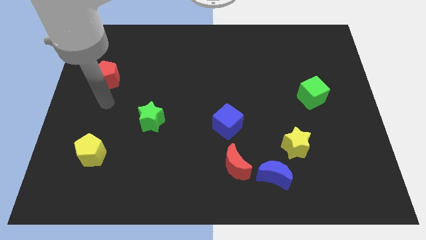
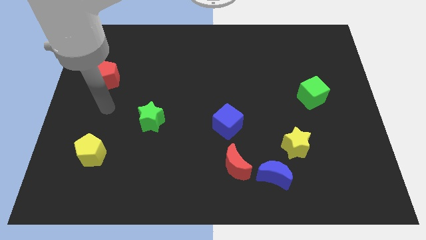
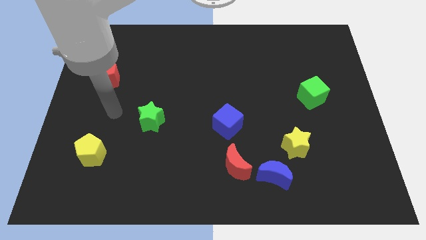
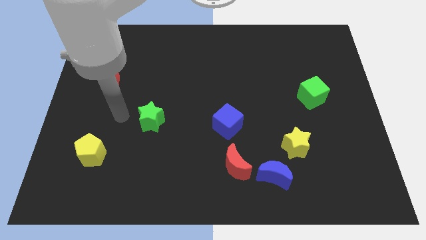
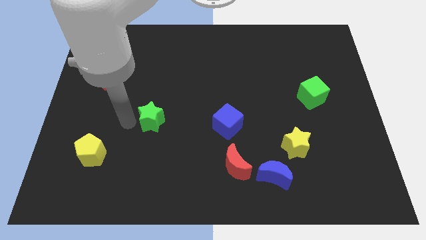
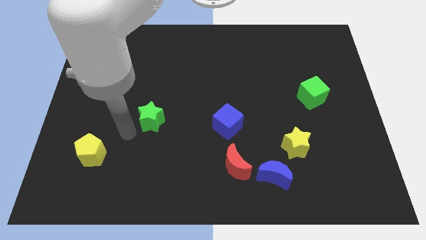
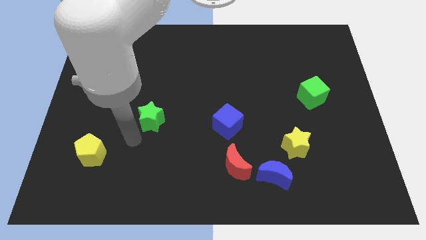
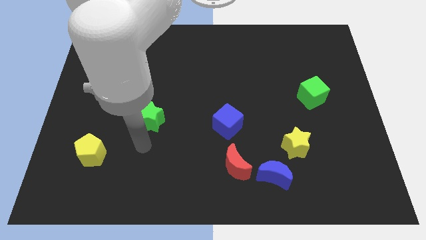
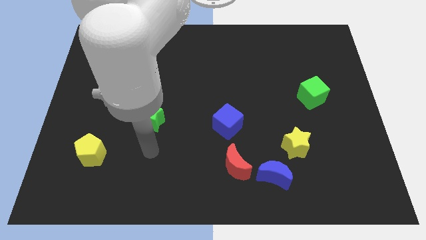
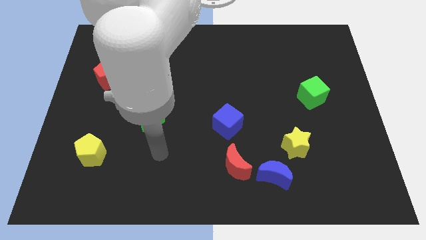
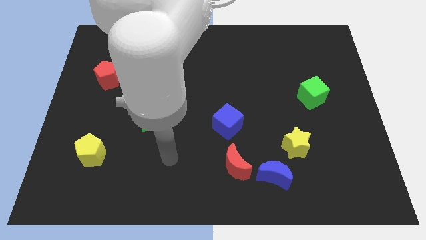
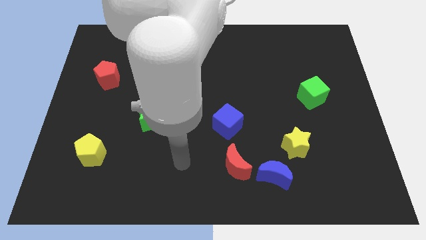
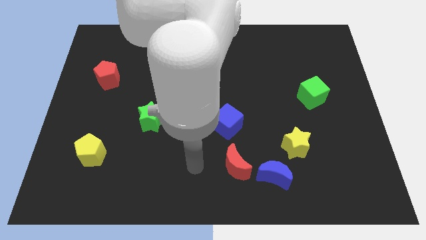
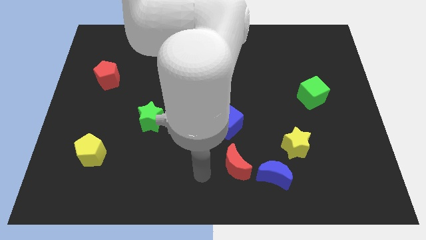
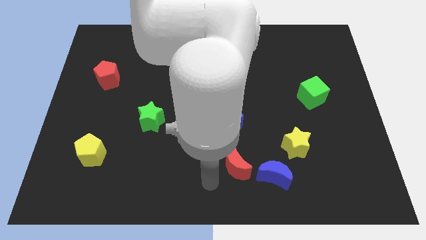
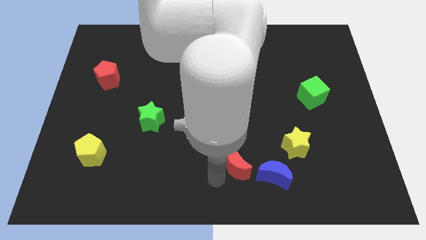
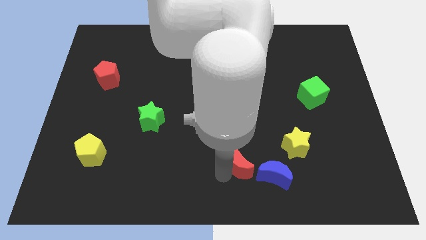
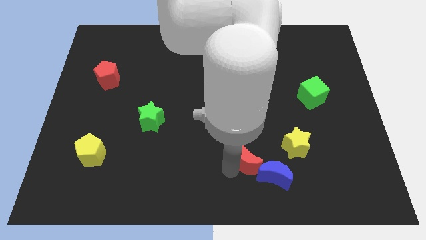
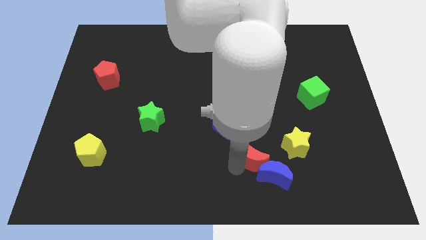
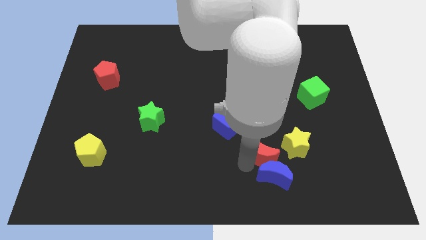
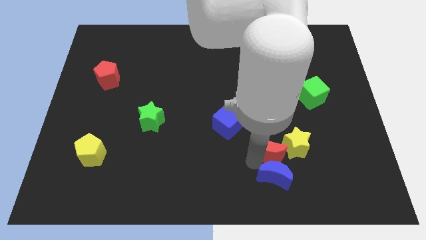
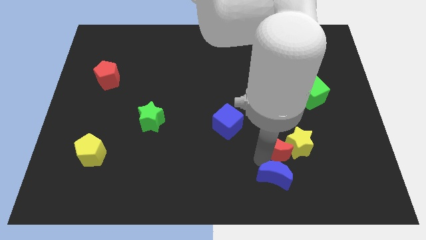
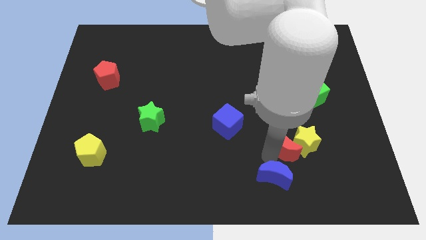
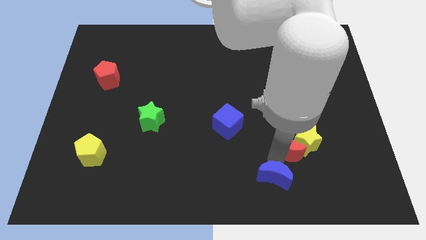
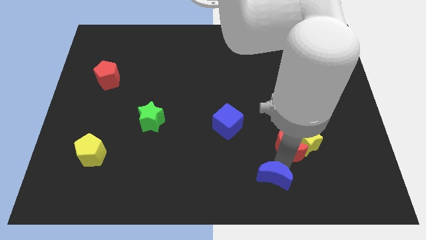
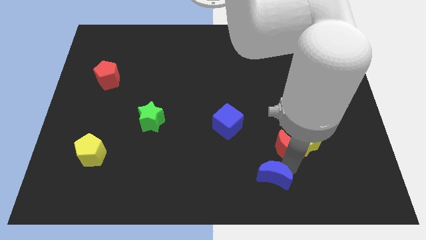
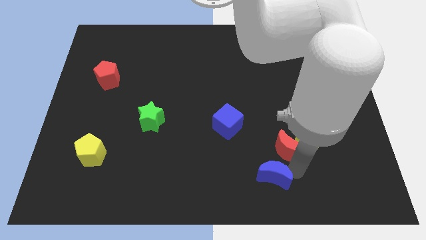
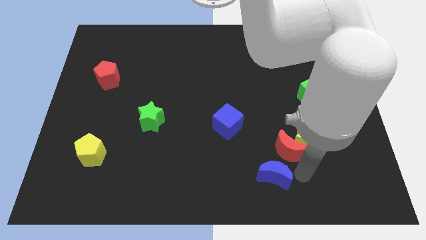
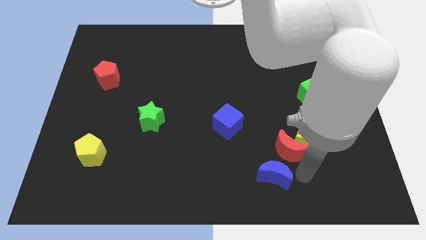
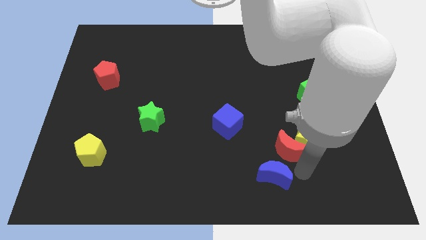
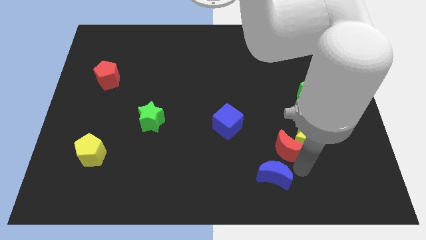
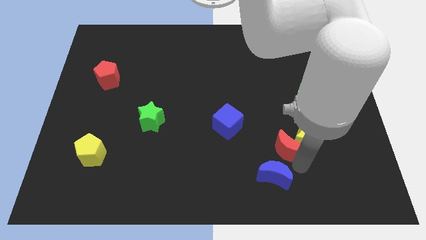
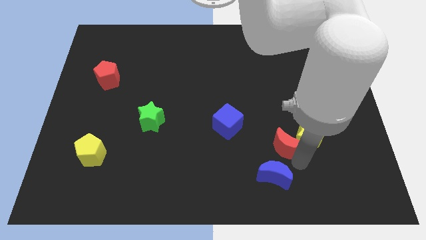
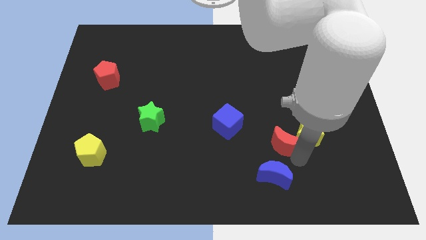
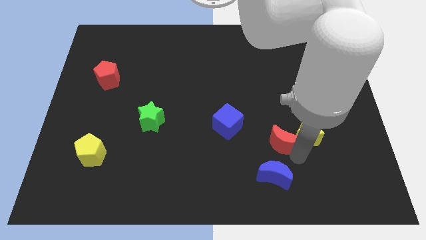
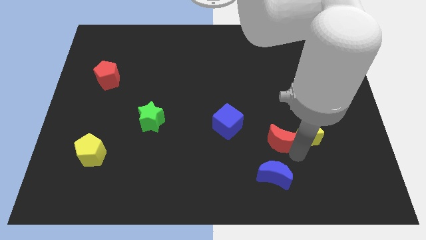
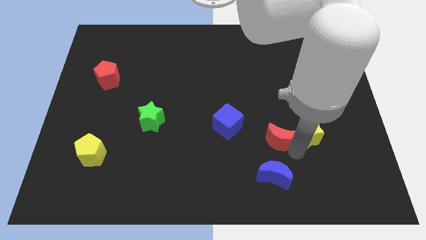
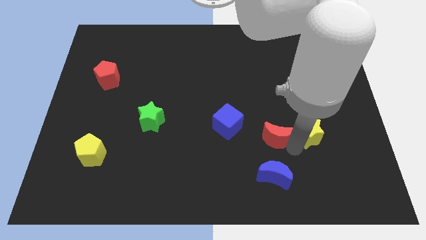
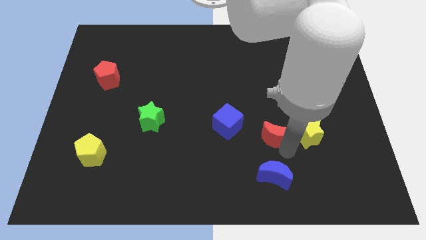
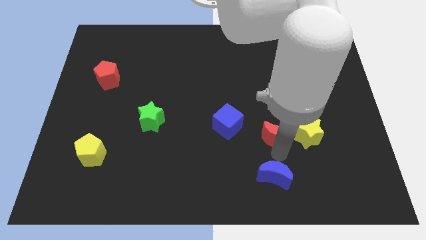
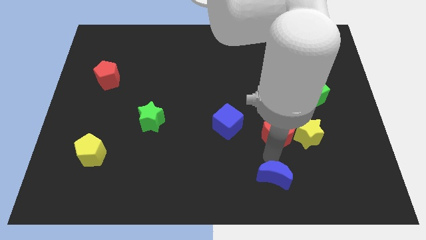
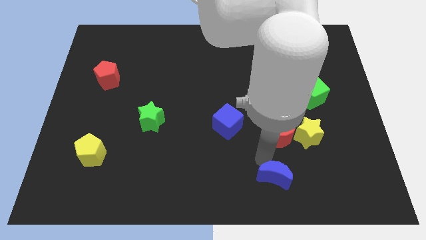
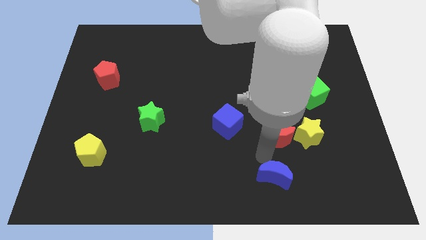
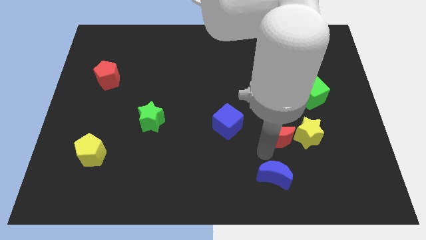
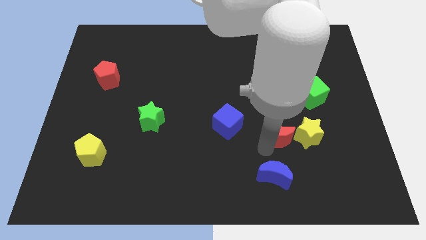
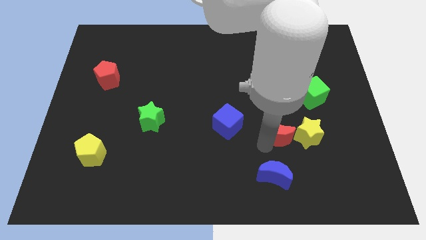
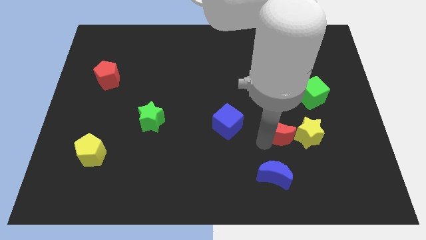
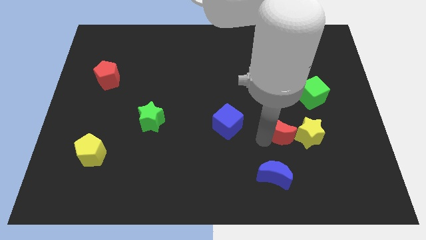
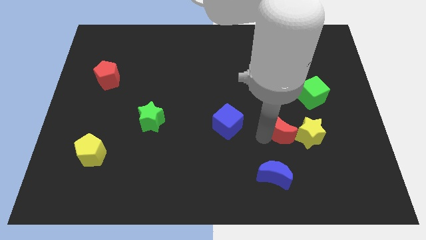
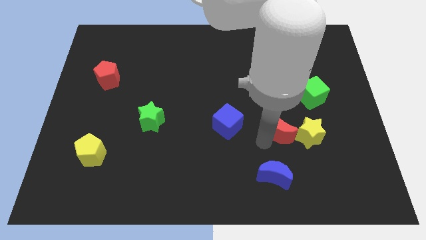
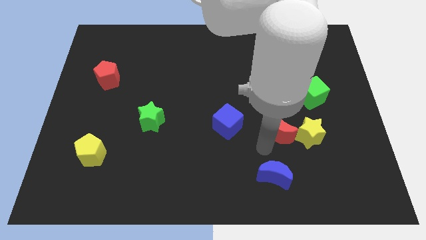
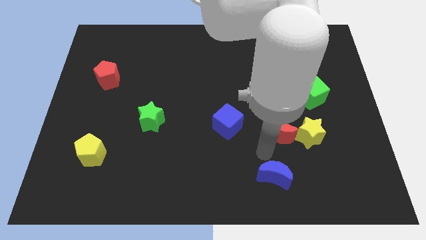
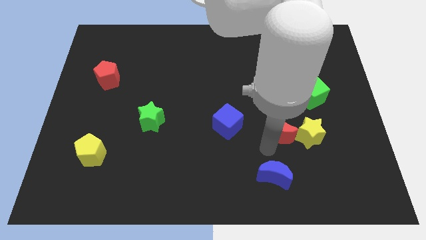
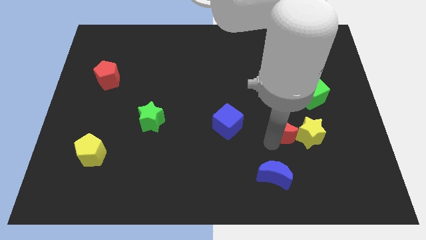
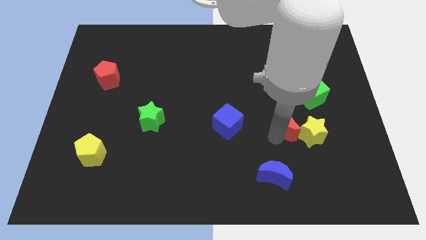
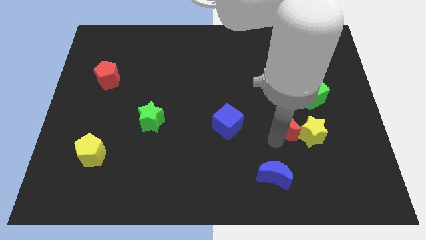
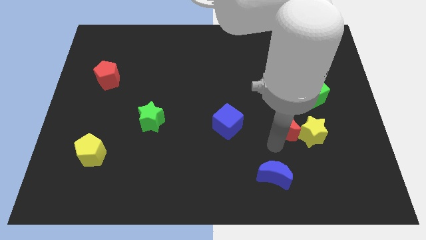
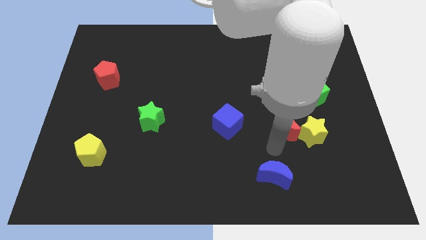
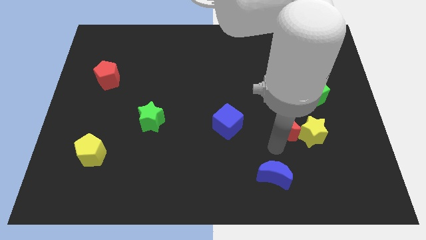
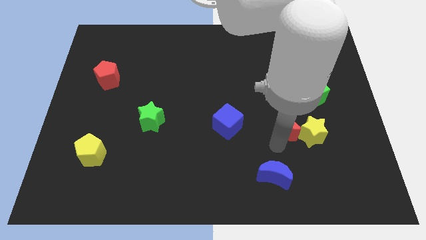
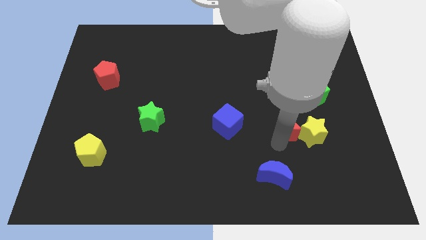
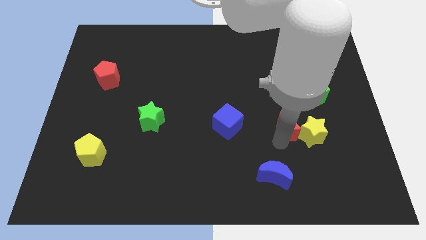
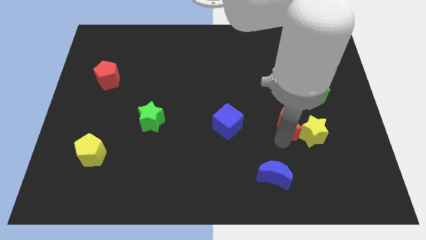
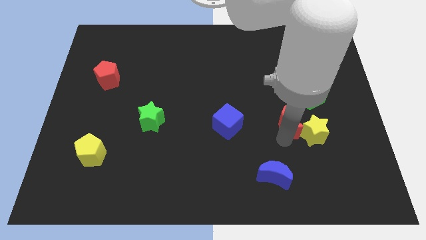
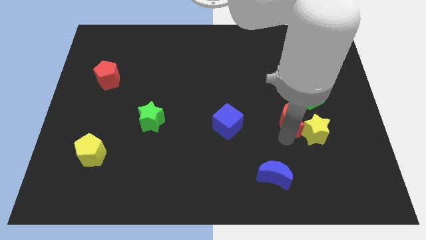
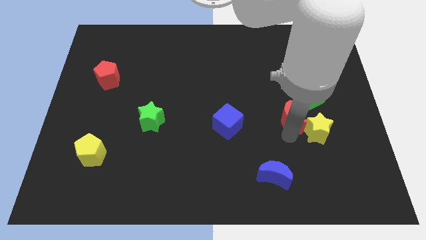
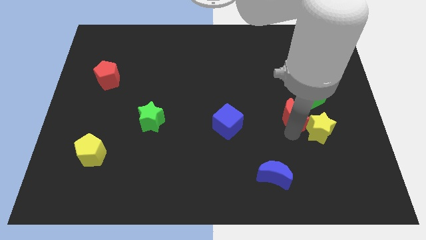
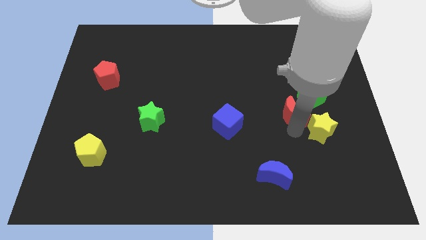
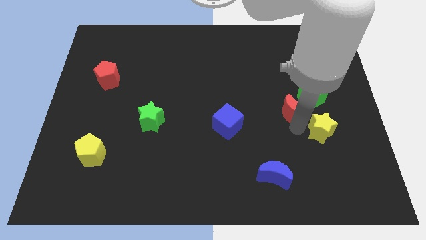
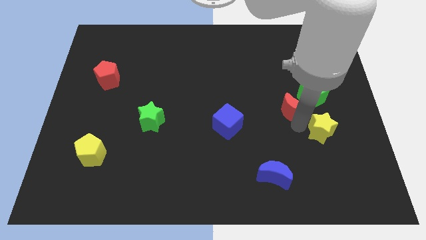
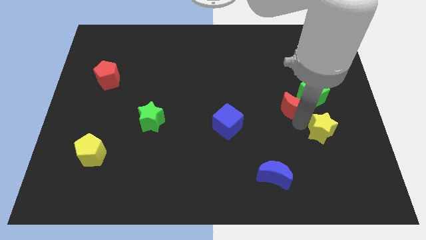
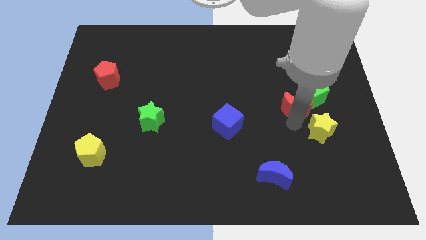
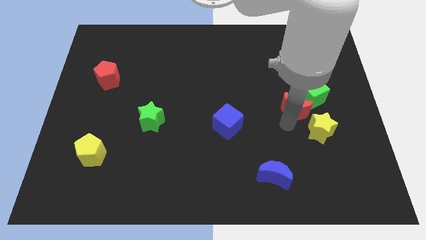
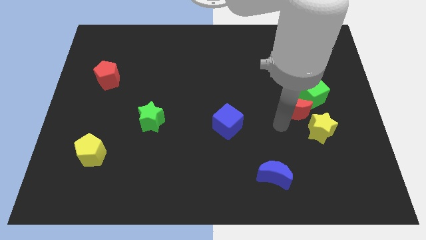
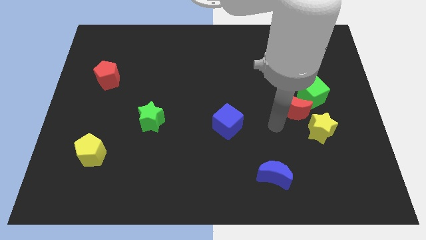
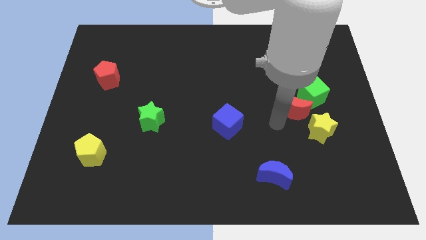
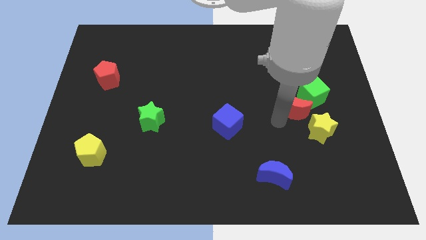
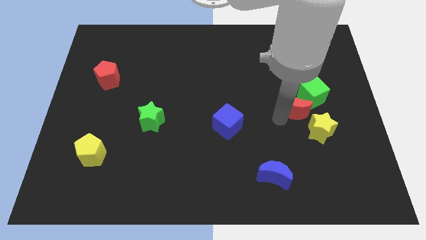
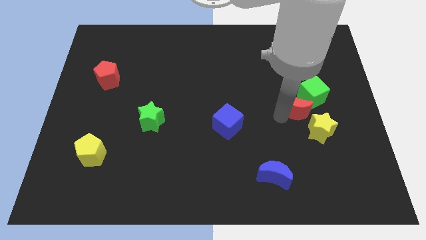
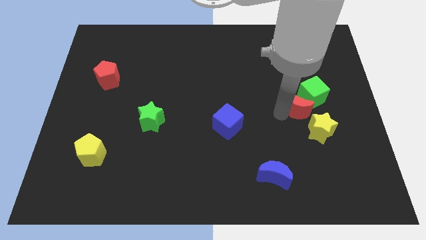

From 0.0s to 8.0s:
move the red moon close to the green cube
